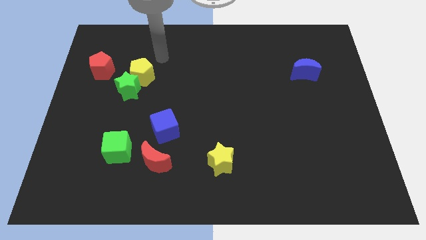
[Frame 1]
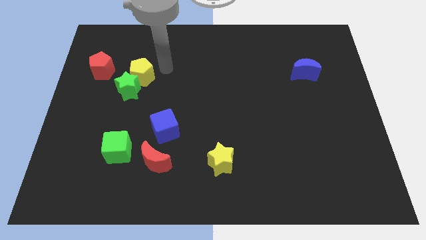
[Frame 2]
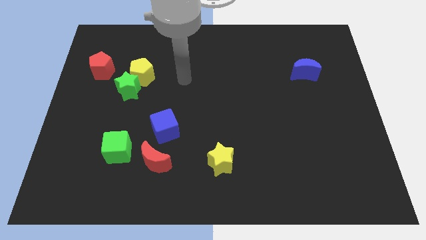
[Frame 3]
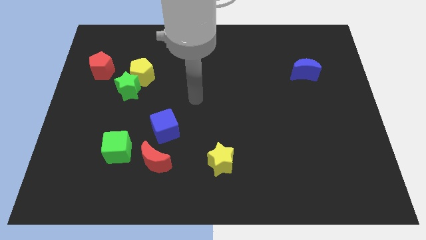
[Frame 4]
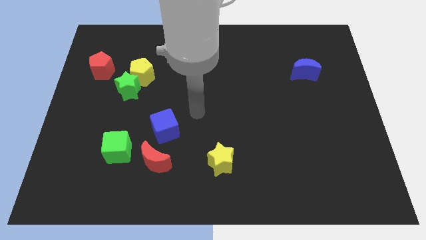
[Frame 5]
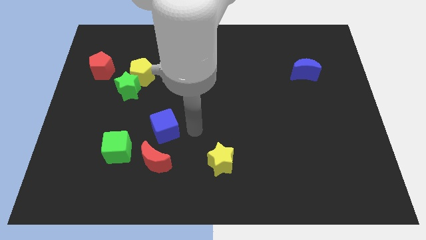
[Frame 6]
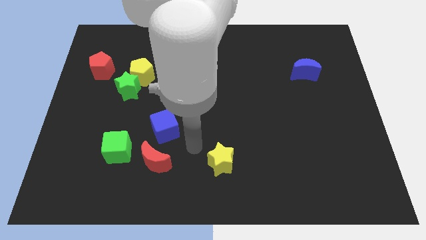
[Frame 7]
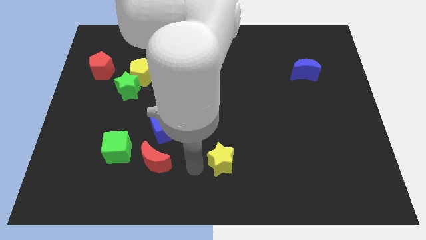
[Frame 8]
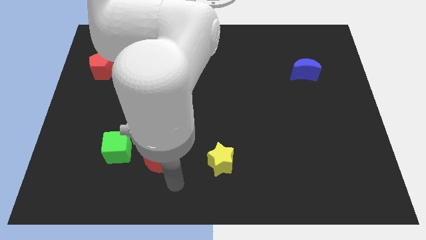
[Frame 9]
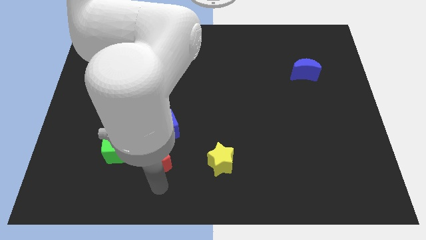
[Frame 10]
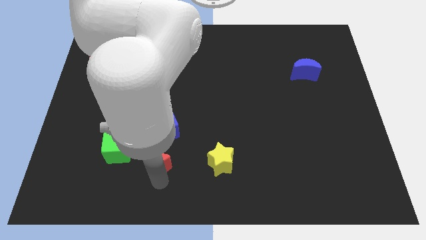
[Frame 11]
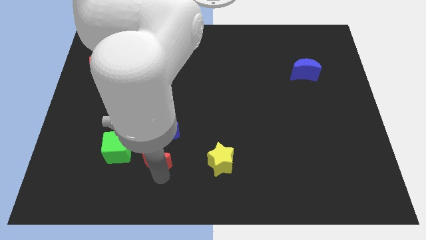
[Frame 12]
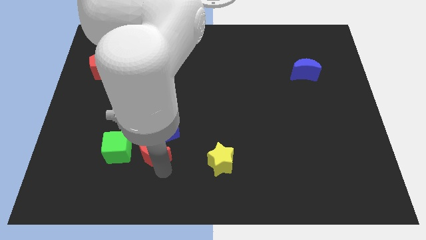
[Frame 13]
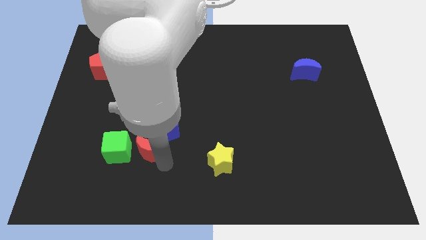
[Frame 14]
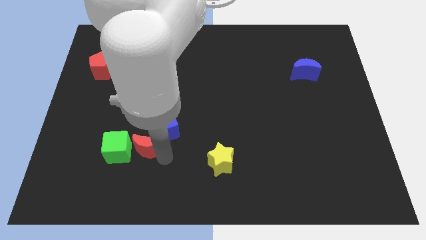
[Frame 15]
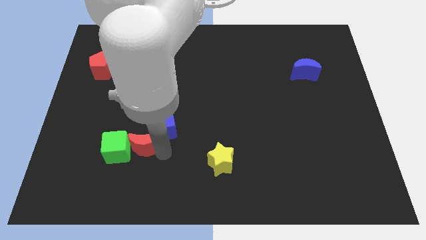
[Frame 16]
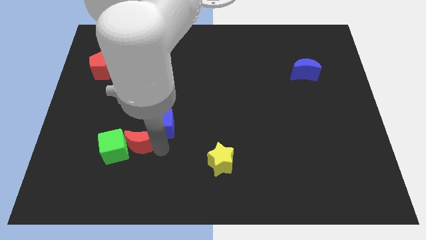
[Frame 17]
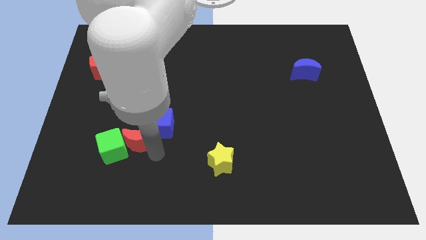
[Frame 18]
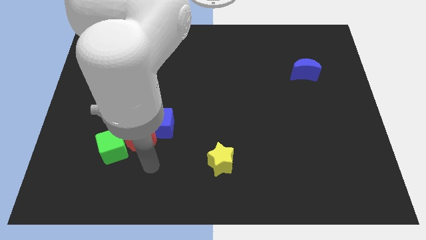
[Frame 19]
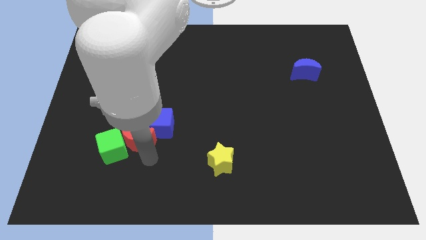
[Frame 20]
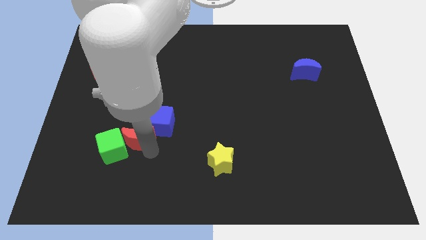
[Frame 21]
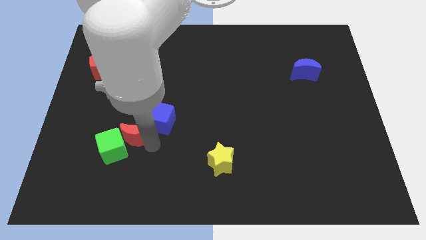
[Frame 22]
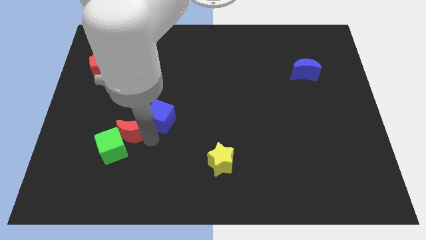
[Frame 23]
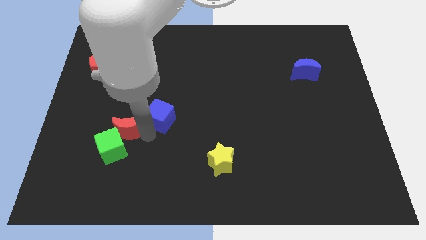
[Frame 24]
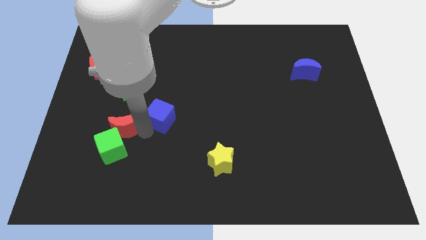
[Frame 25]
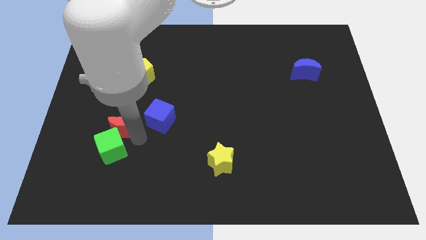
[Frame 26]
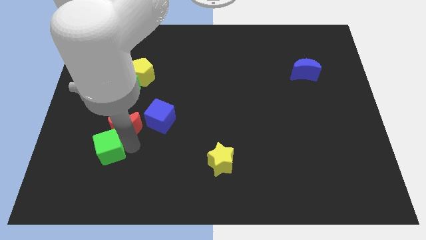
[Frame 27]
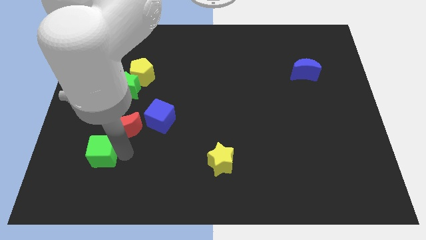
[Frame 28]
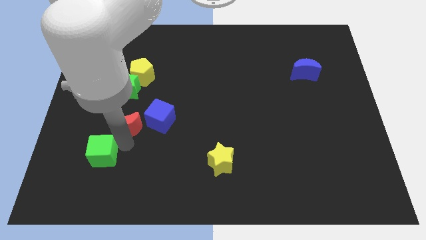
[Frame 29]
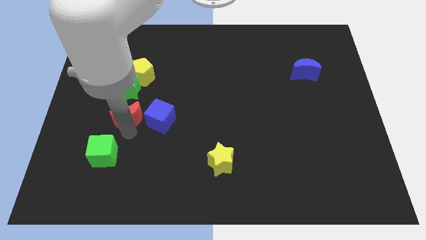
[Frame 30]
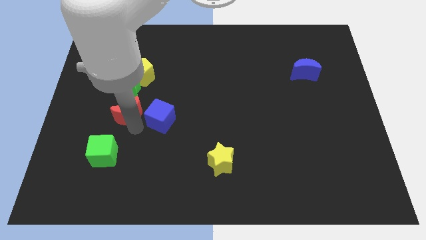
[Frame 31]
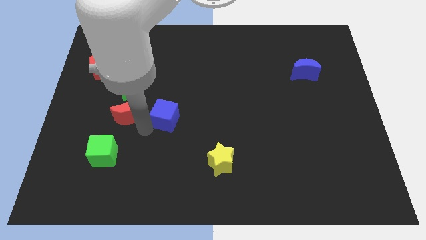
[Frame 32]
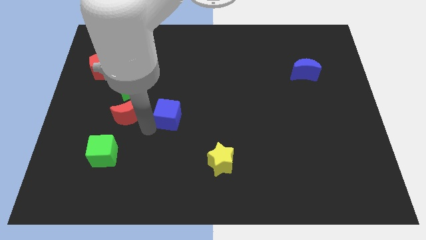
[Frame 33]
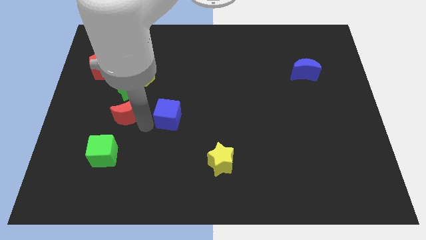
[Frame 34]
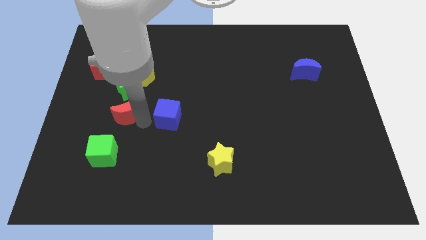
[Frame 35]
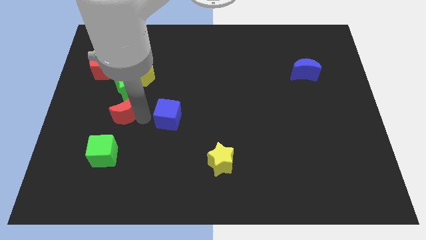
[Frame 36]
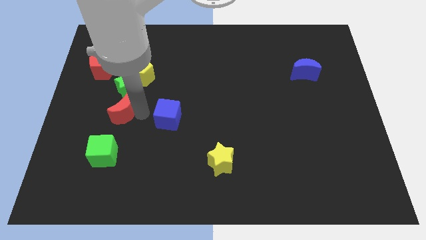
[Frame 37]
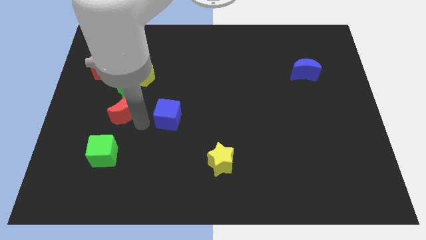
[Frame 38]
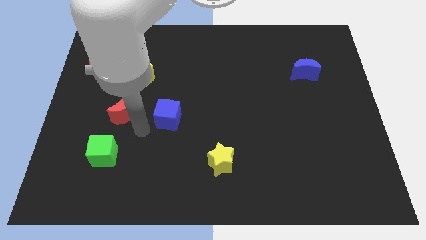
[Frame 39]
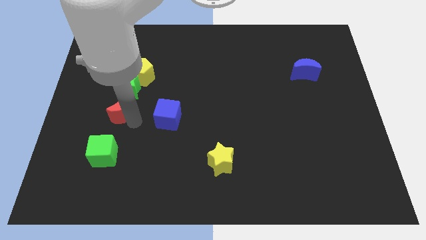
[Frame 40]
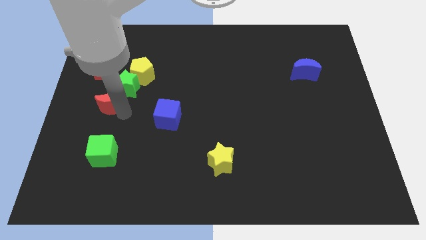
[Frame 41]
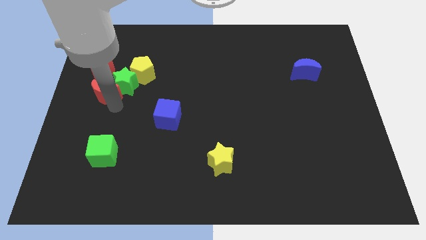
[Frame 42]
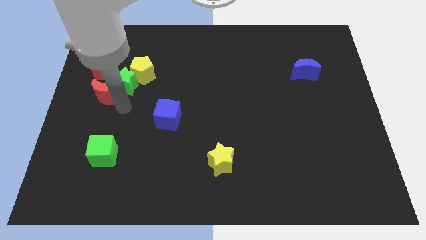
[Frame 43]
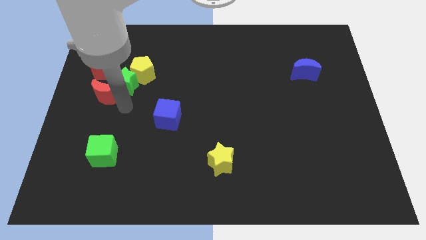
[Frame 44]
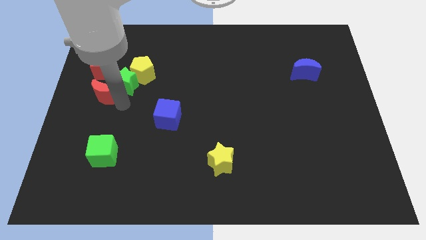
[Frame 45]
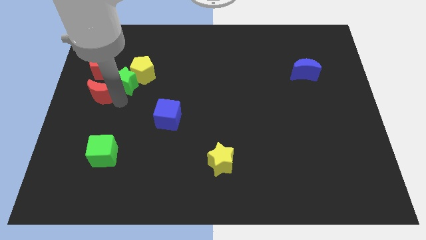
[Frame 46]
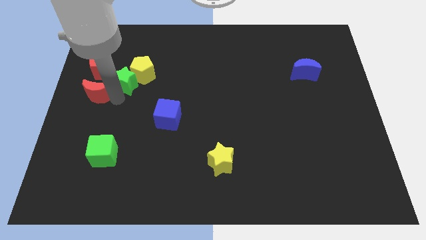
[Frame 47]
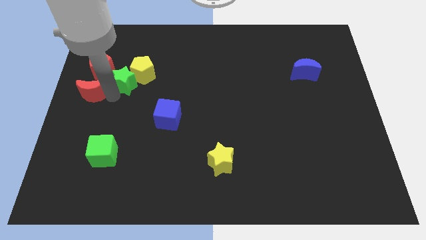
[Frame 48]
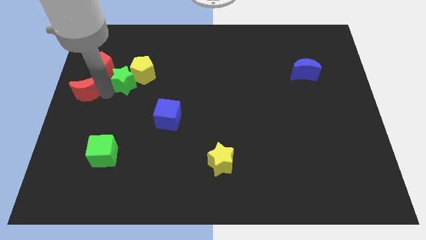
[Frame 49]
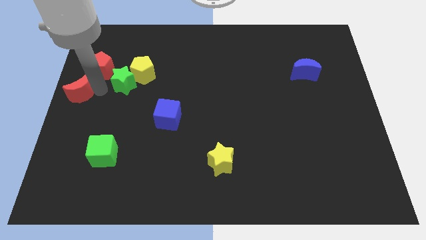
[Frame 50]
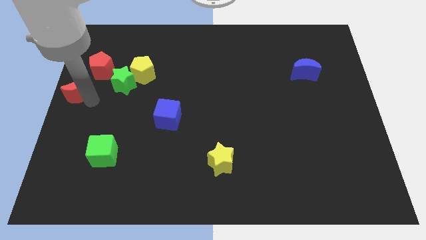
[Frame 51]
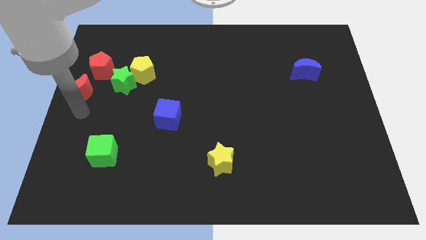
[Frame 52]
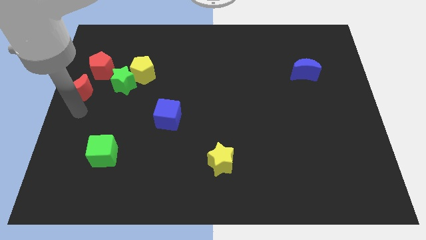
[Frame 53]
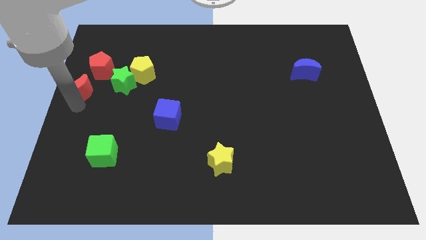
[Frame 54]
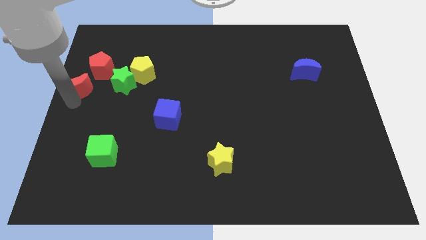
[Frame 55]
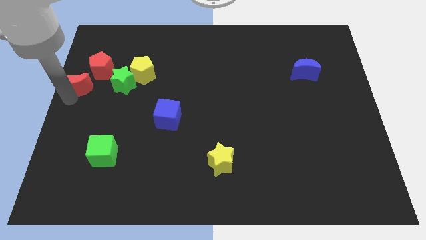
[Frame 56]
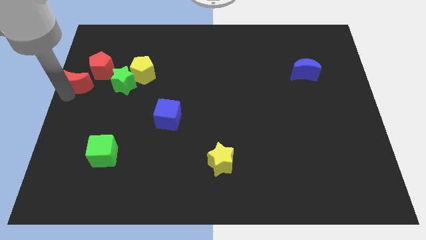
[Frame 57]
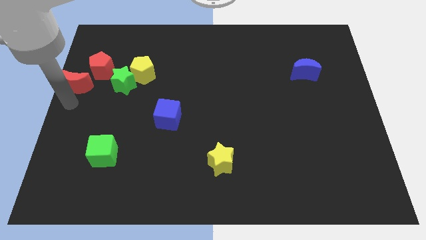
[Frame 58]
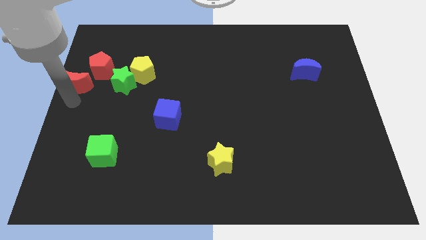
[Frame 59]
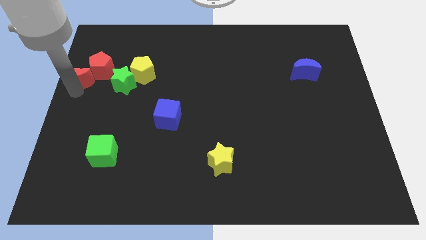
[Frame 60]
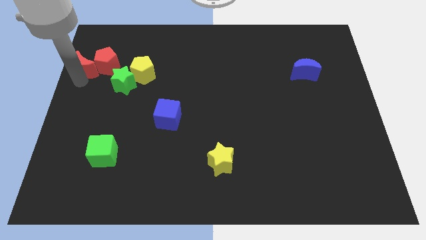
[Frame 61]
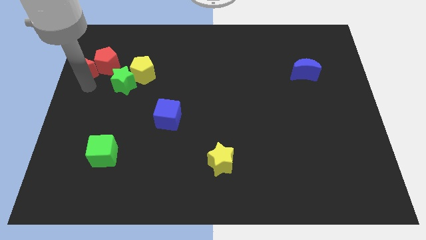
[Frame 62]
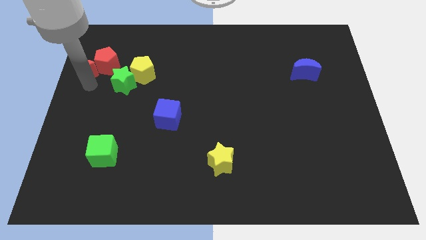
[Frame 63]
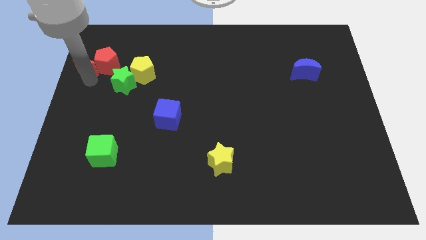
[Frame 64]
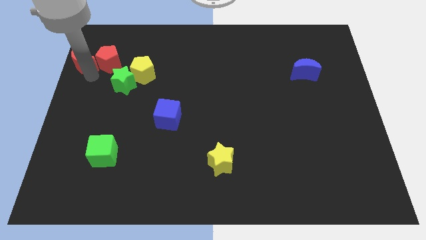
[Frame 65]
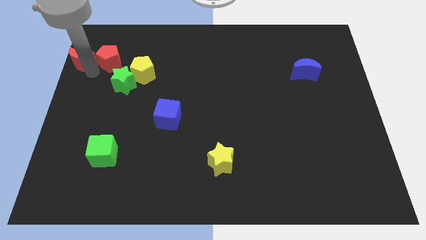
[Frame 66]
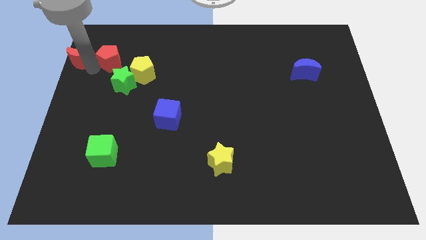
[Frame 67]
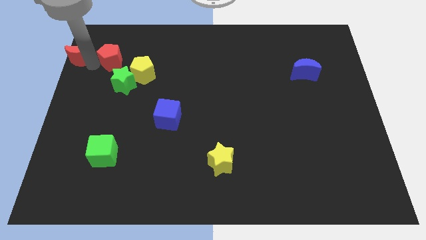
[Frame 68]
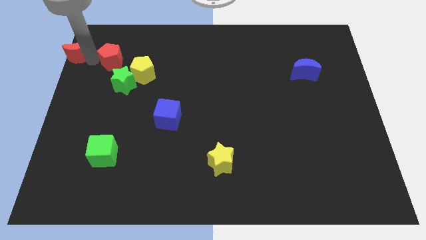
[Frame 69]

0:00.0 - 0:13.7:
push the red moon to the top left corner
